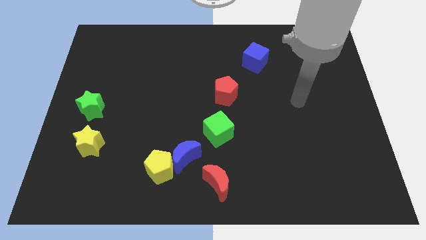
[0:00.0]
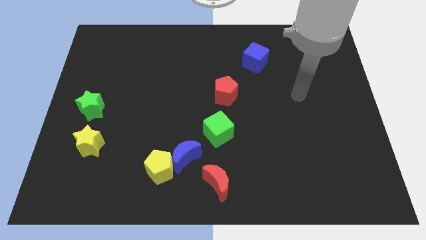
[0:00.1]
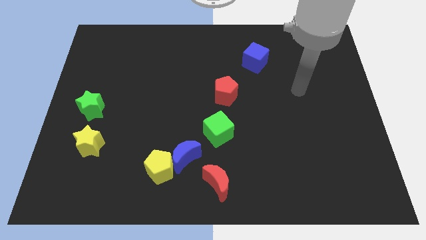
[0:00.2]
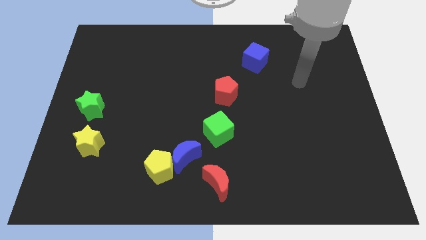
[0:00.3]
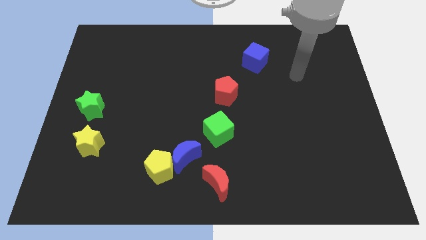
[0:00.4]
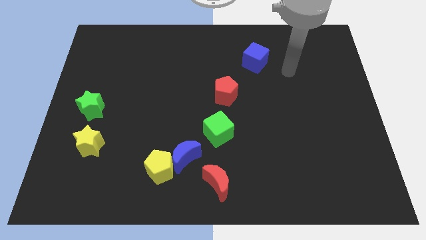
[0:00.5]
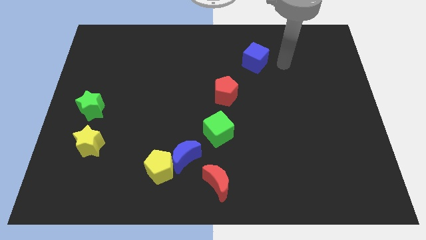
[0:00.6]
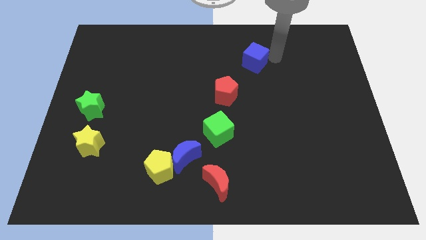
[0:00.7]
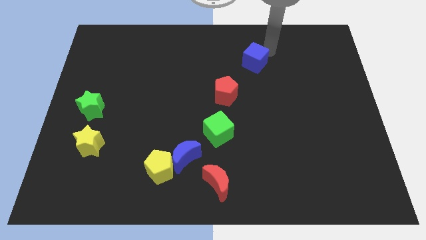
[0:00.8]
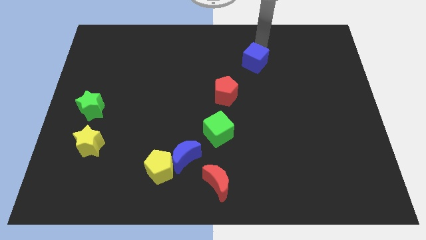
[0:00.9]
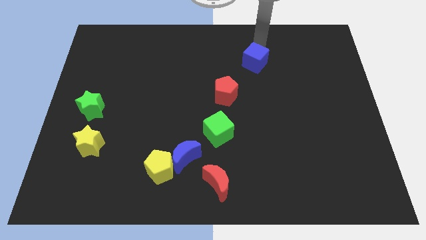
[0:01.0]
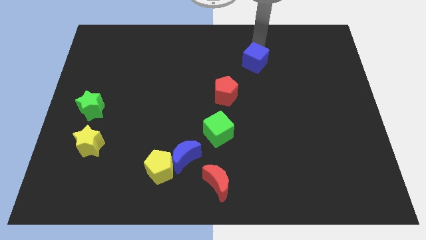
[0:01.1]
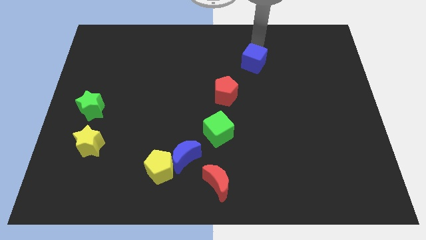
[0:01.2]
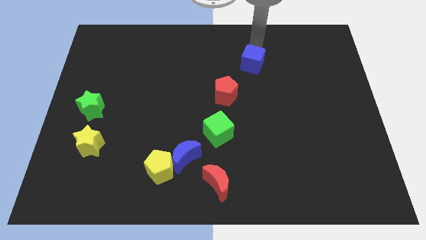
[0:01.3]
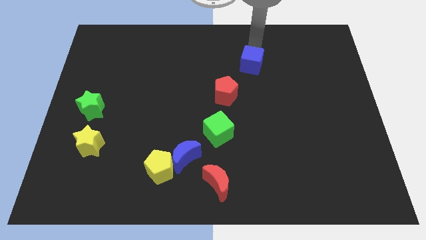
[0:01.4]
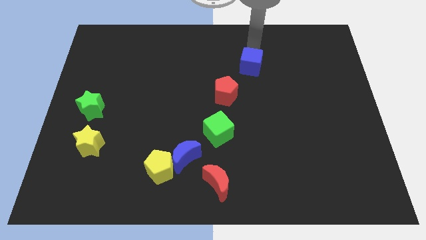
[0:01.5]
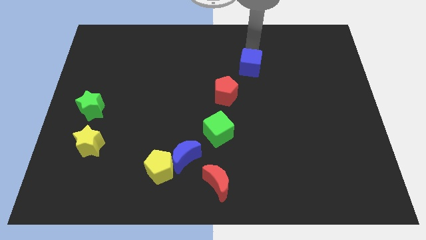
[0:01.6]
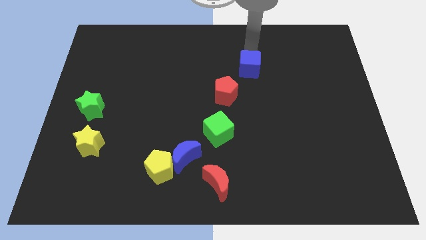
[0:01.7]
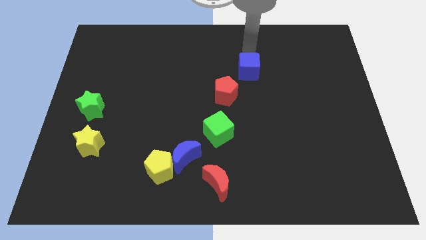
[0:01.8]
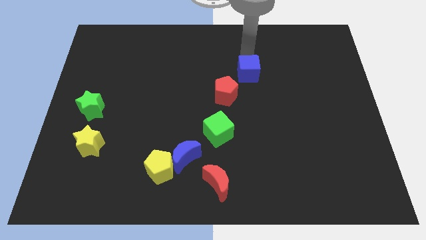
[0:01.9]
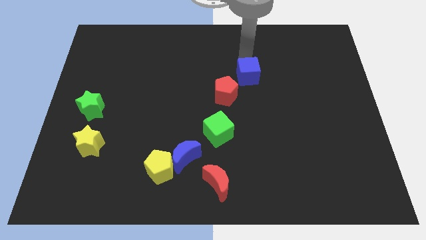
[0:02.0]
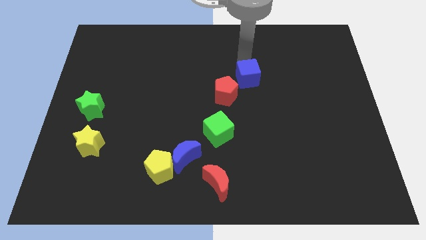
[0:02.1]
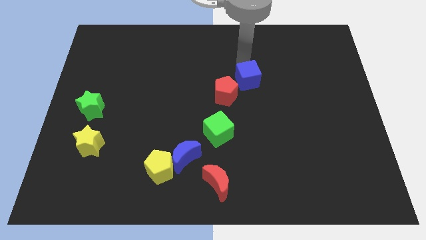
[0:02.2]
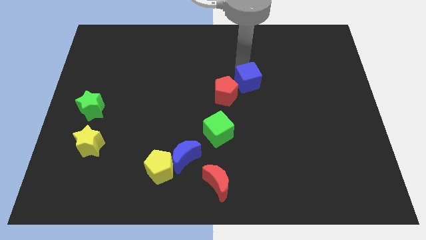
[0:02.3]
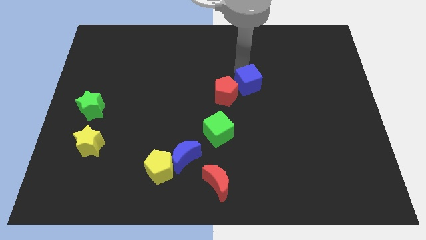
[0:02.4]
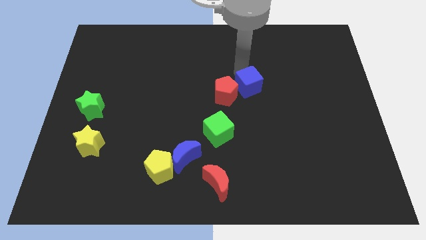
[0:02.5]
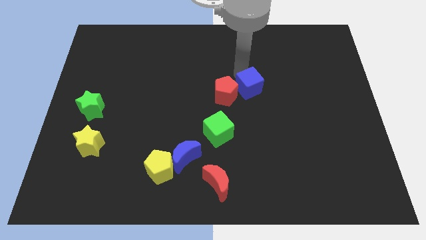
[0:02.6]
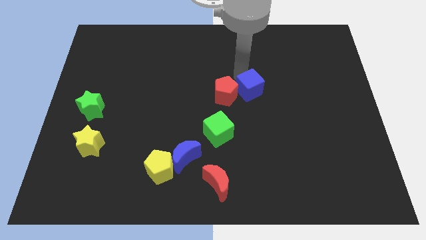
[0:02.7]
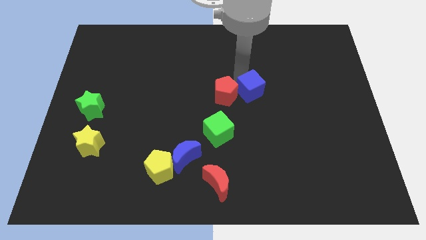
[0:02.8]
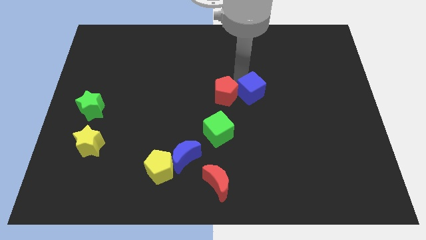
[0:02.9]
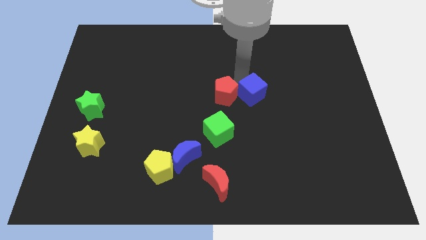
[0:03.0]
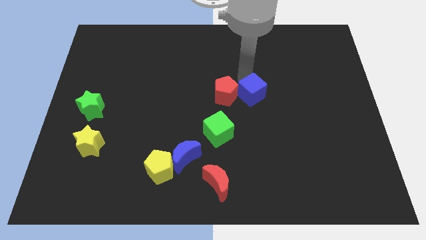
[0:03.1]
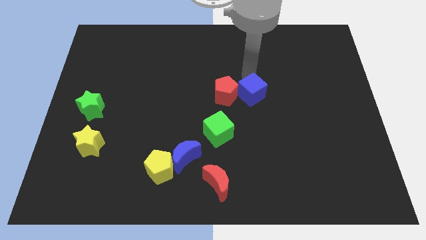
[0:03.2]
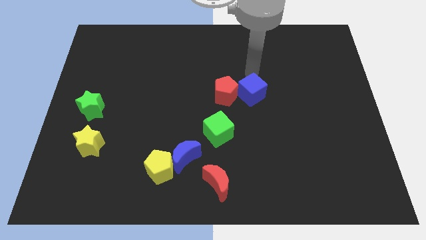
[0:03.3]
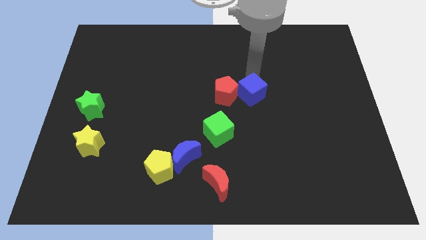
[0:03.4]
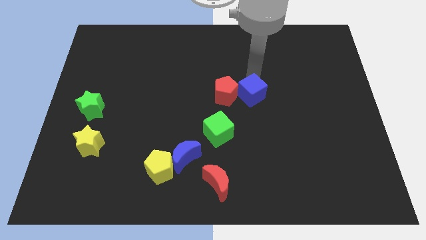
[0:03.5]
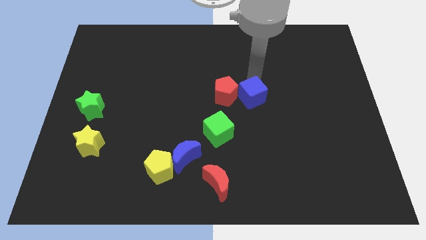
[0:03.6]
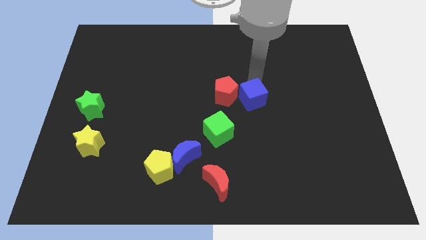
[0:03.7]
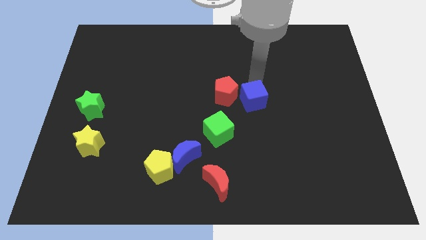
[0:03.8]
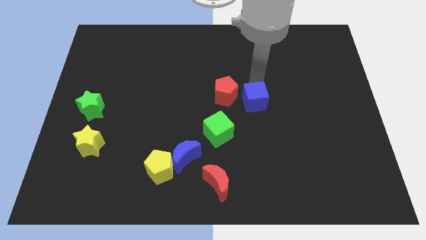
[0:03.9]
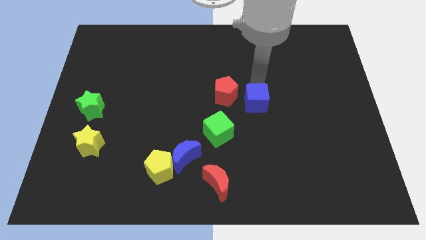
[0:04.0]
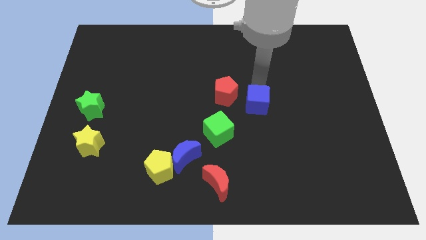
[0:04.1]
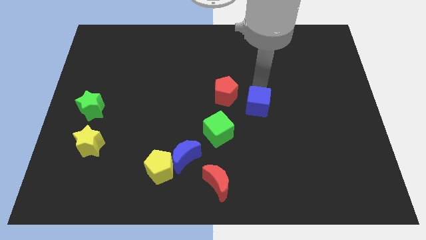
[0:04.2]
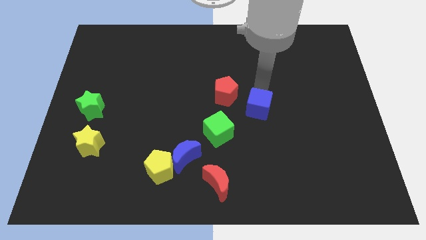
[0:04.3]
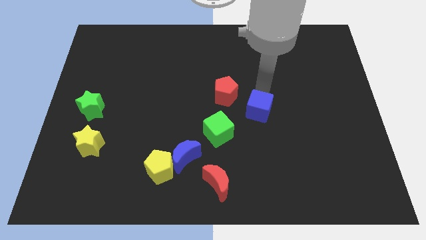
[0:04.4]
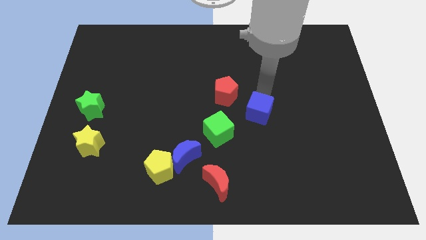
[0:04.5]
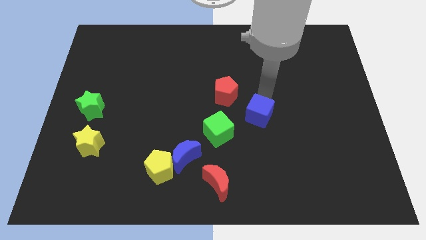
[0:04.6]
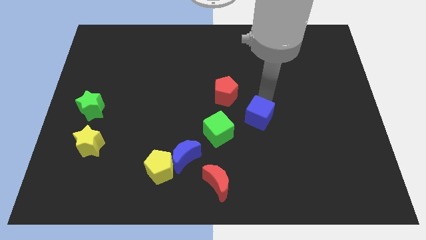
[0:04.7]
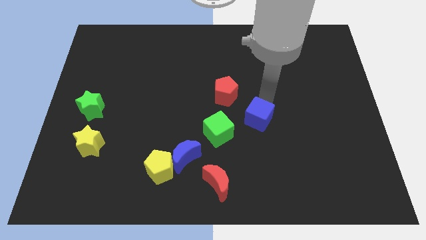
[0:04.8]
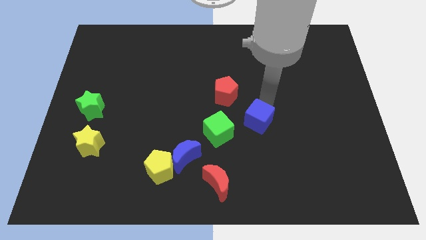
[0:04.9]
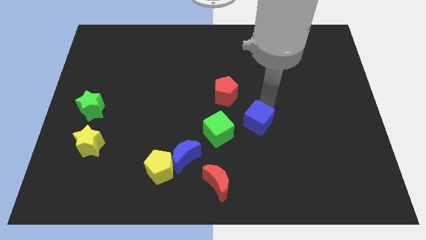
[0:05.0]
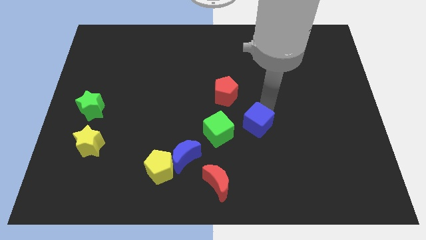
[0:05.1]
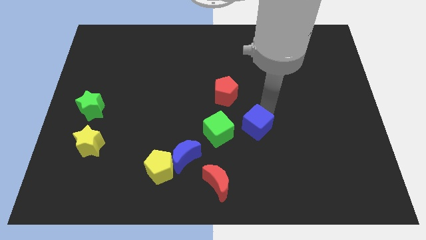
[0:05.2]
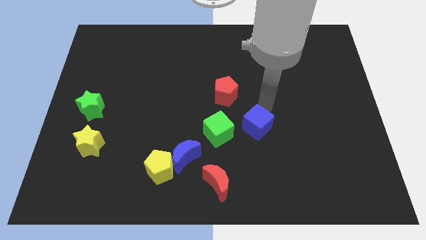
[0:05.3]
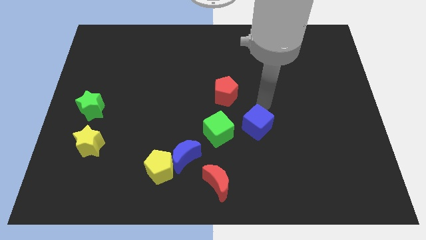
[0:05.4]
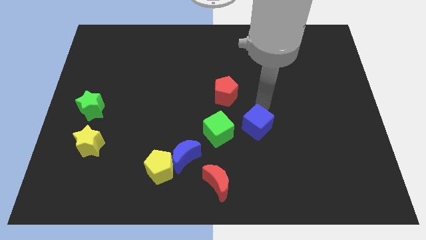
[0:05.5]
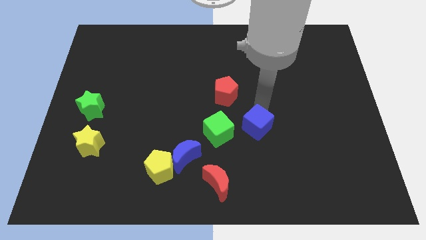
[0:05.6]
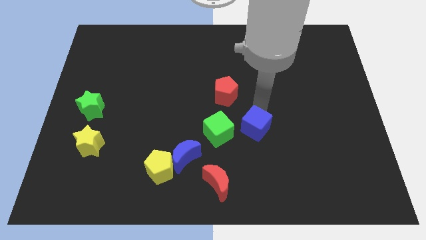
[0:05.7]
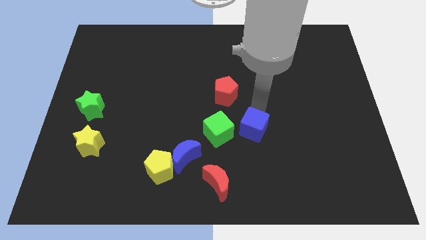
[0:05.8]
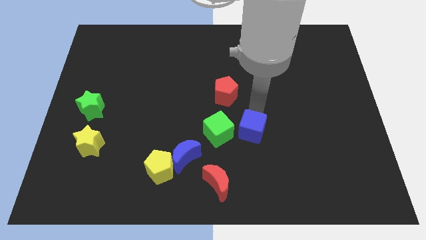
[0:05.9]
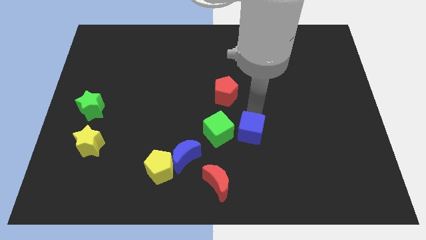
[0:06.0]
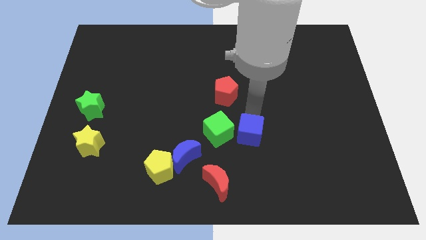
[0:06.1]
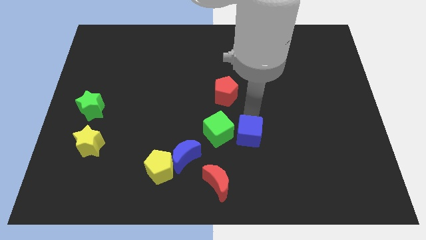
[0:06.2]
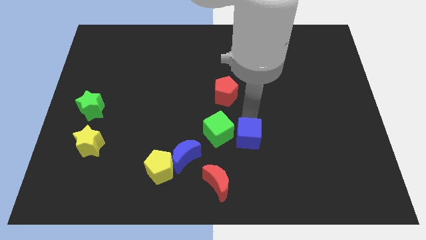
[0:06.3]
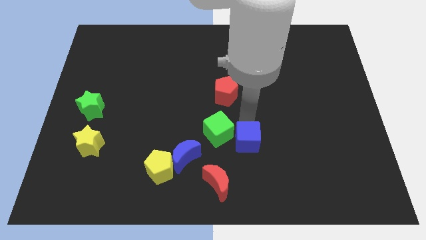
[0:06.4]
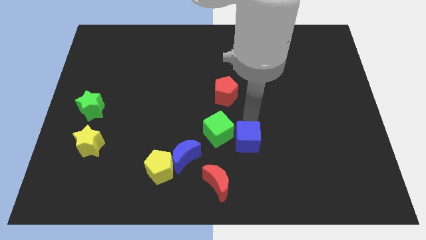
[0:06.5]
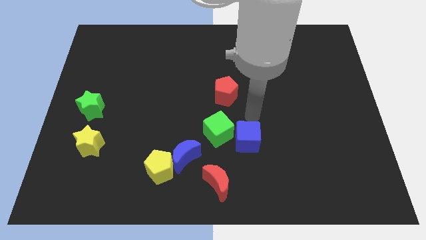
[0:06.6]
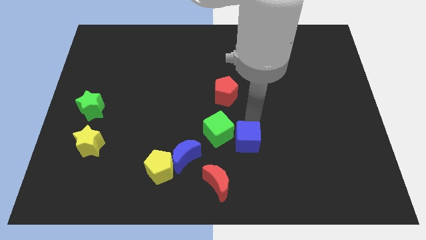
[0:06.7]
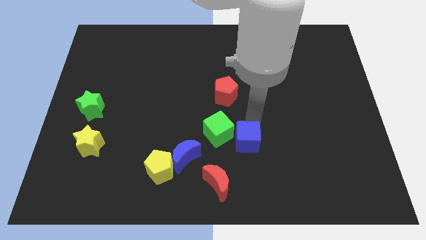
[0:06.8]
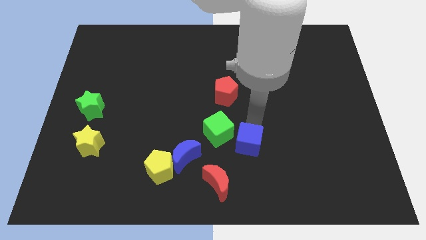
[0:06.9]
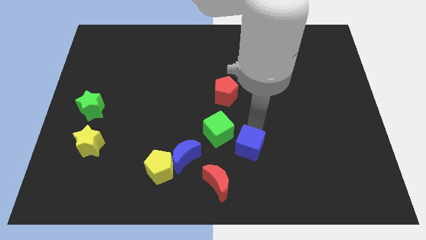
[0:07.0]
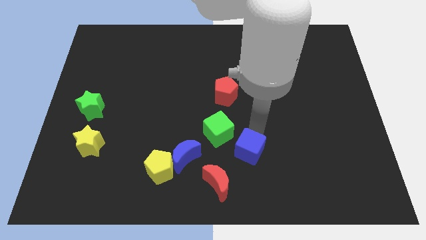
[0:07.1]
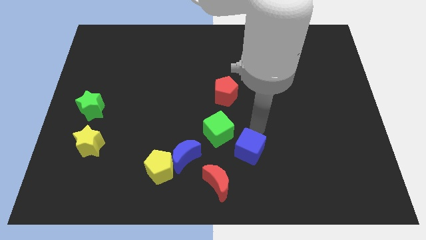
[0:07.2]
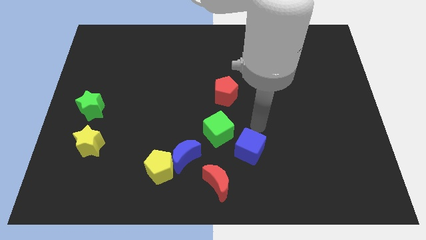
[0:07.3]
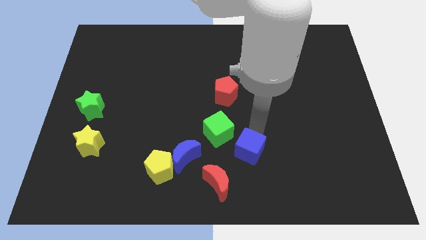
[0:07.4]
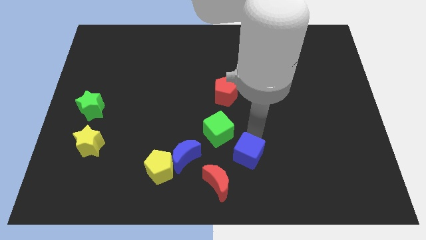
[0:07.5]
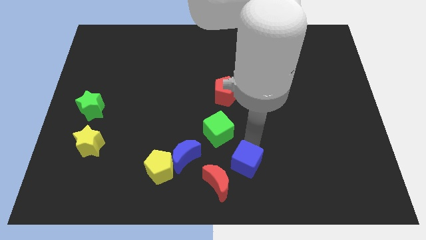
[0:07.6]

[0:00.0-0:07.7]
slide the blue cube to the bottom side
